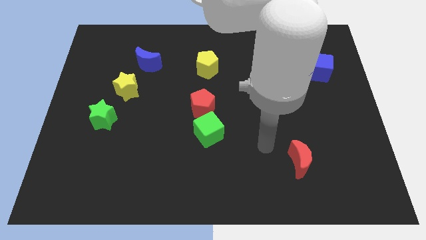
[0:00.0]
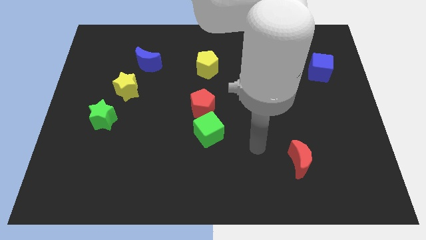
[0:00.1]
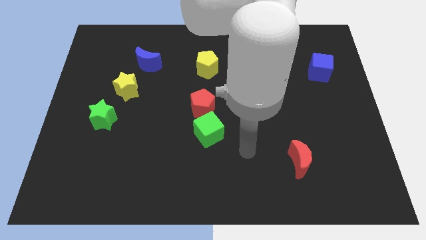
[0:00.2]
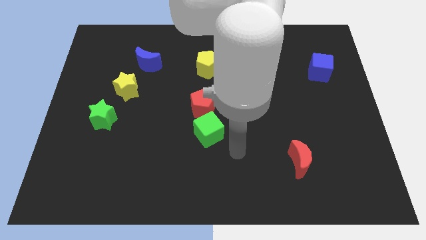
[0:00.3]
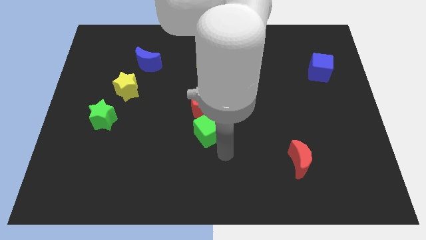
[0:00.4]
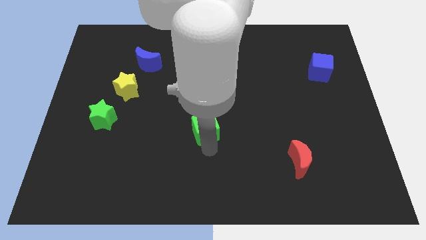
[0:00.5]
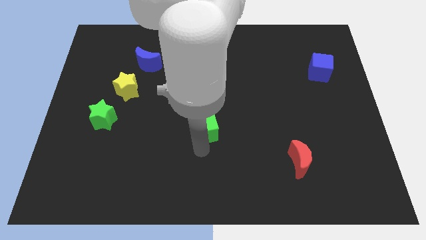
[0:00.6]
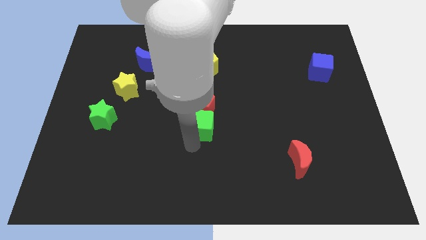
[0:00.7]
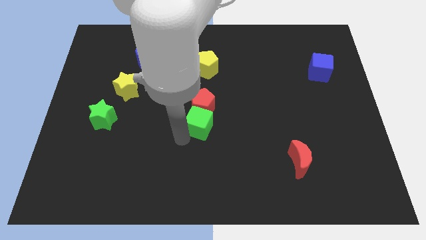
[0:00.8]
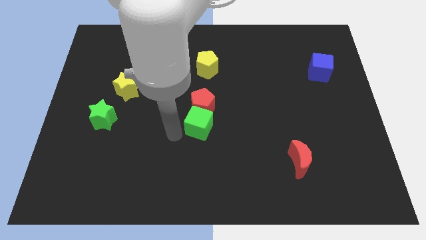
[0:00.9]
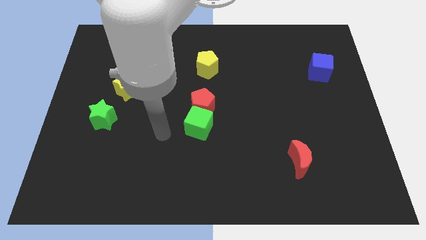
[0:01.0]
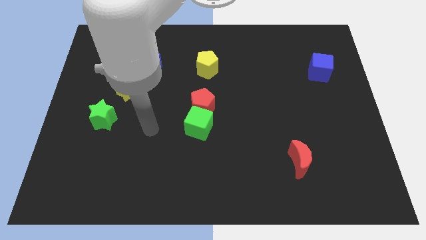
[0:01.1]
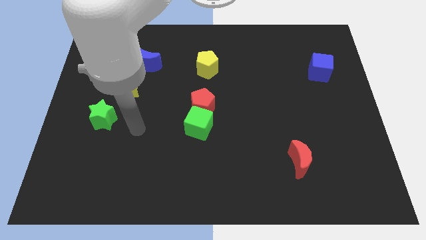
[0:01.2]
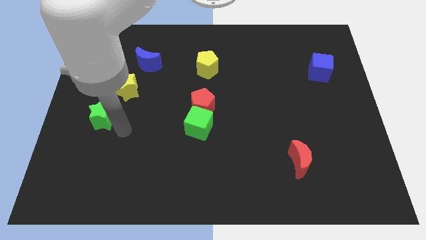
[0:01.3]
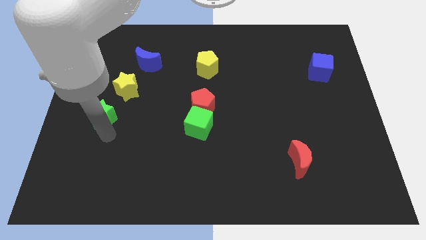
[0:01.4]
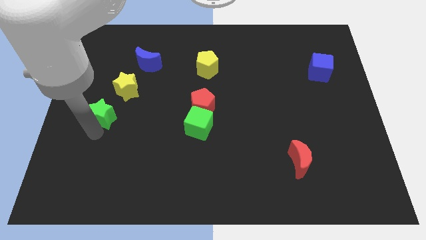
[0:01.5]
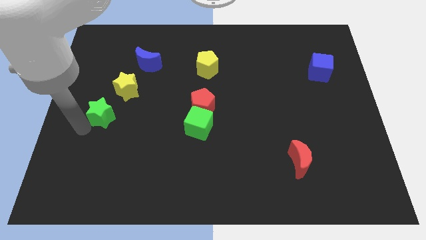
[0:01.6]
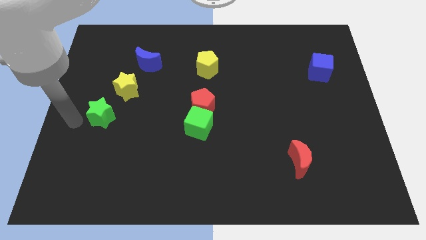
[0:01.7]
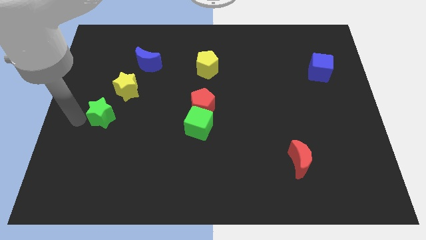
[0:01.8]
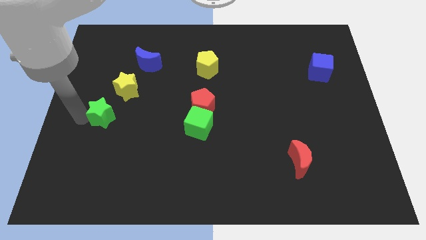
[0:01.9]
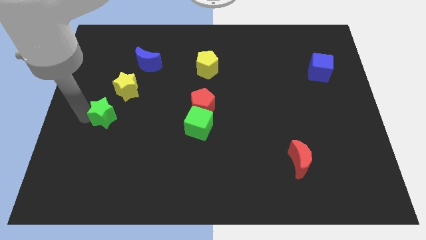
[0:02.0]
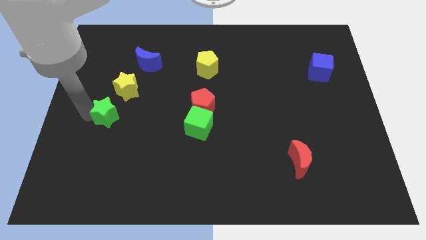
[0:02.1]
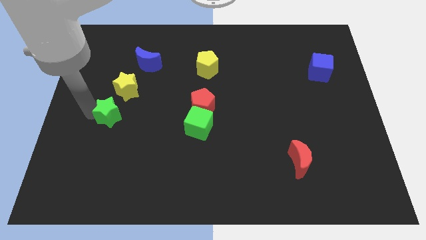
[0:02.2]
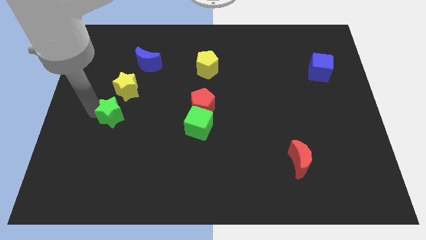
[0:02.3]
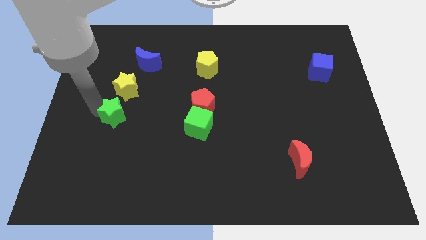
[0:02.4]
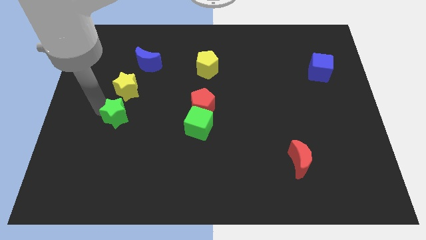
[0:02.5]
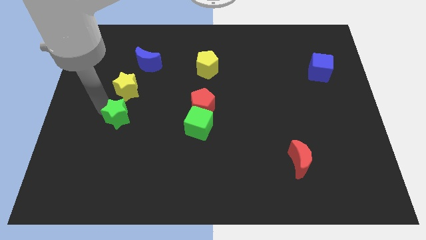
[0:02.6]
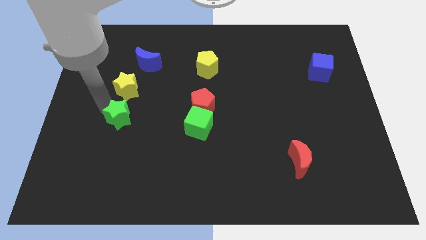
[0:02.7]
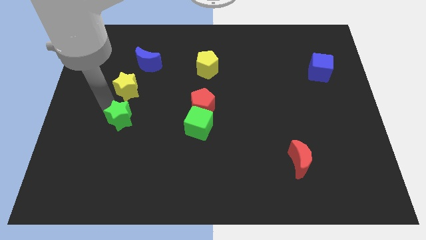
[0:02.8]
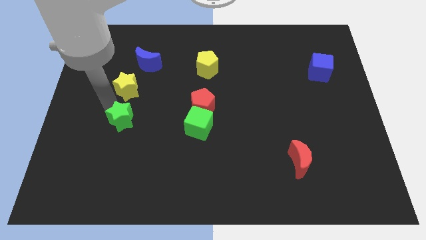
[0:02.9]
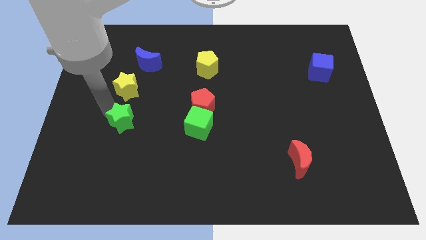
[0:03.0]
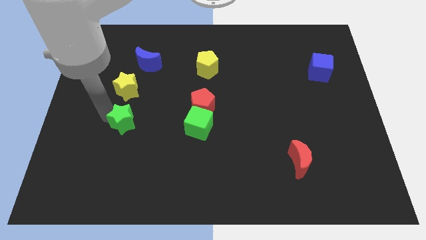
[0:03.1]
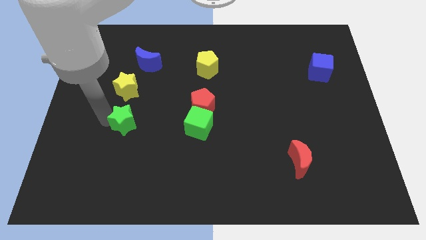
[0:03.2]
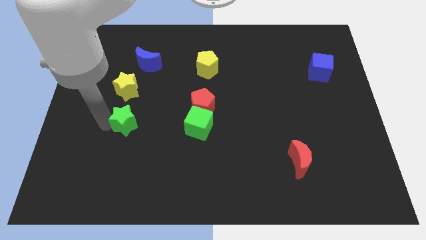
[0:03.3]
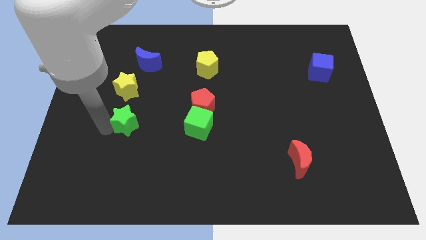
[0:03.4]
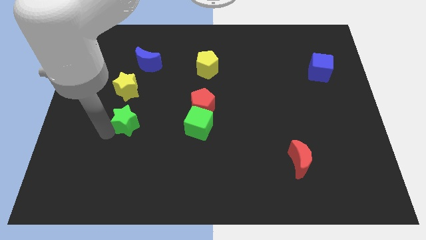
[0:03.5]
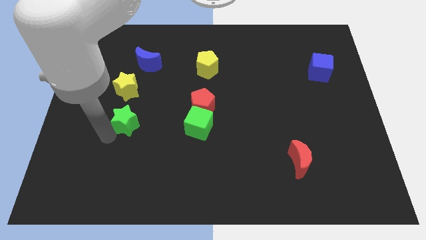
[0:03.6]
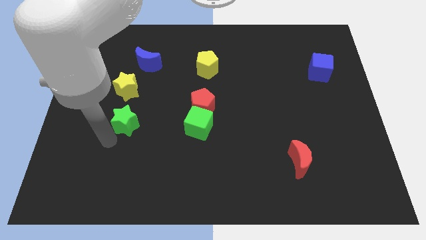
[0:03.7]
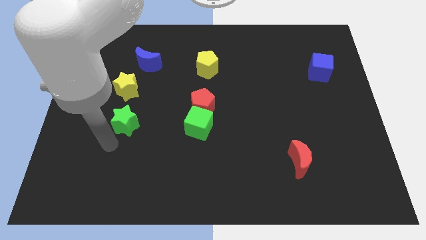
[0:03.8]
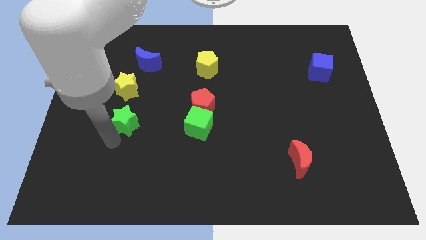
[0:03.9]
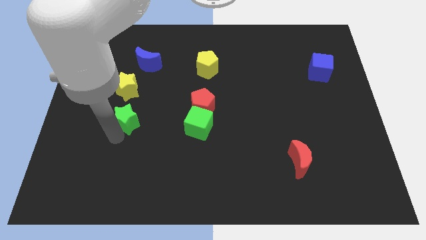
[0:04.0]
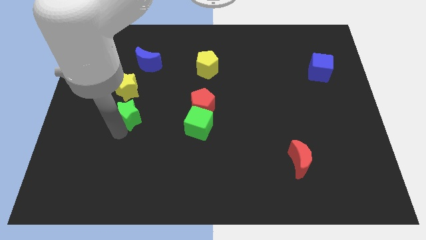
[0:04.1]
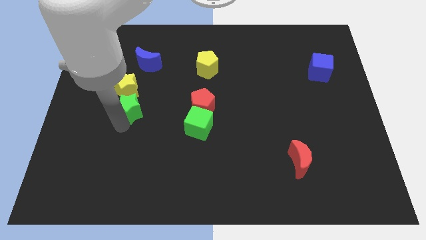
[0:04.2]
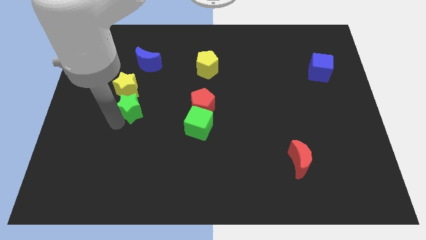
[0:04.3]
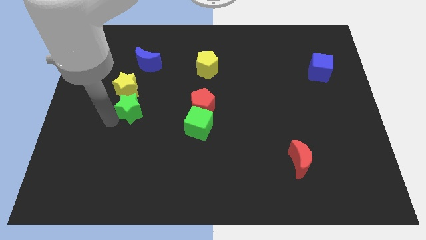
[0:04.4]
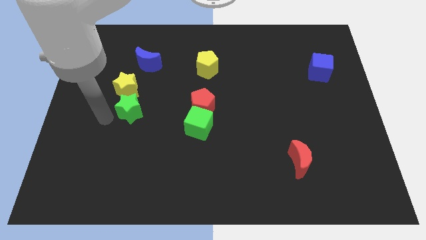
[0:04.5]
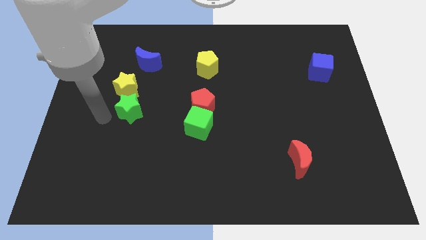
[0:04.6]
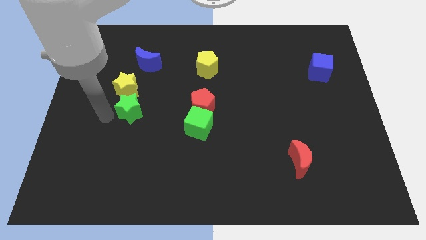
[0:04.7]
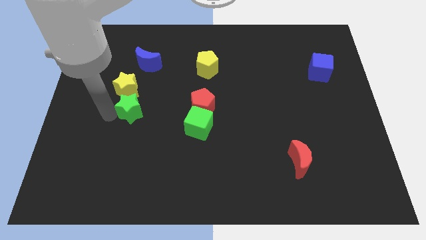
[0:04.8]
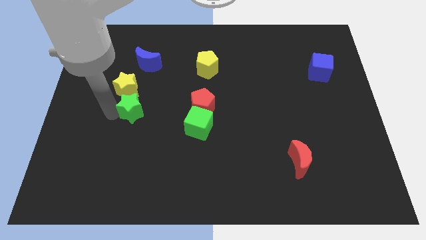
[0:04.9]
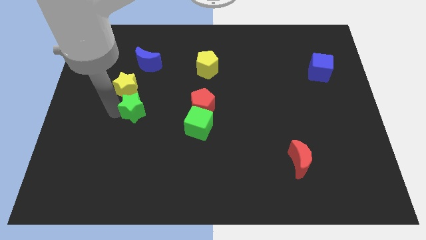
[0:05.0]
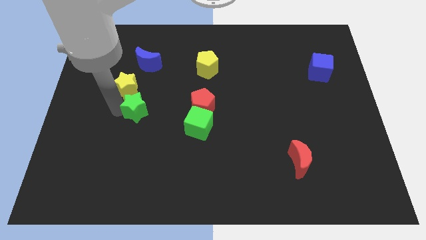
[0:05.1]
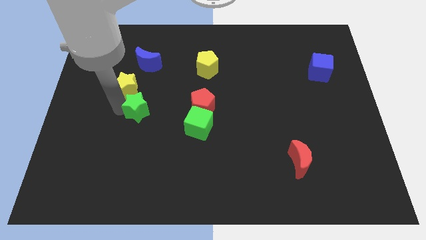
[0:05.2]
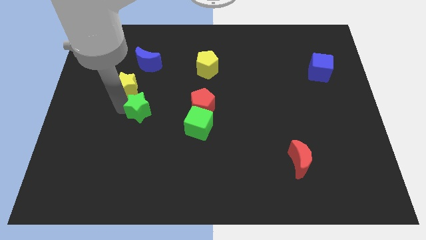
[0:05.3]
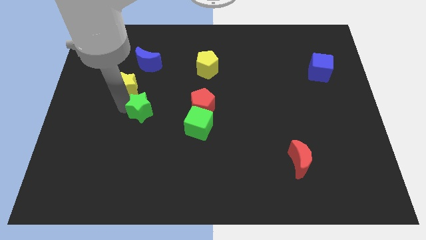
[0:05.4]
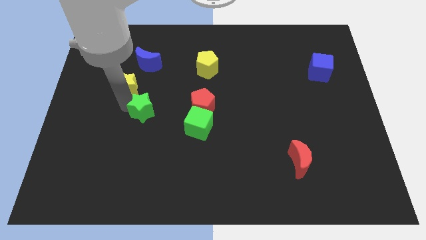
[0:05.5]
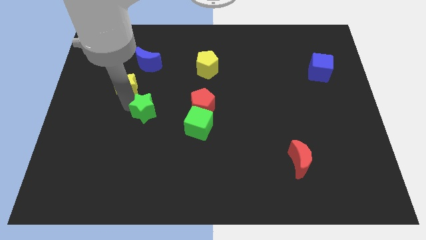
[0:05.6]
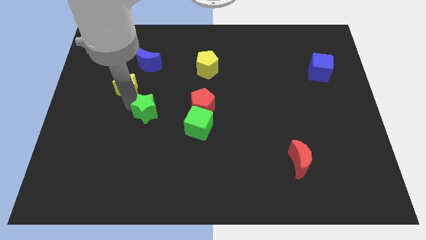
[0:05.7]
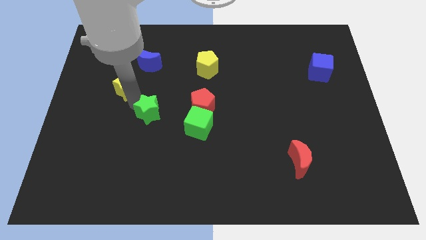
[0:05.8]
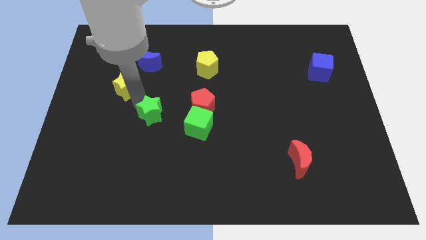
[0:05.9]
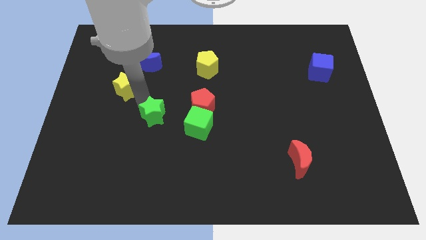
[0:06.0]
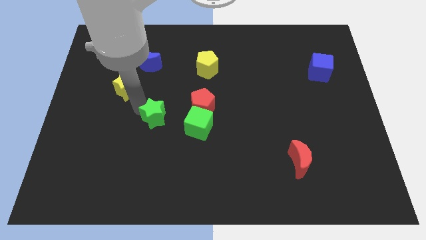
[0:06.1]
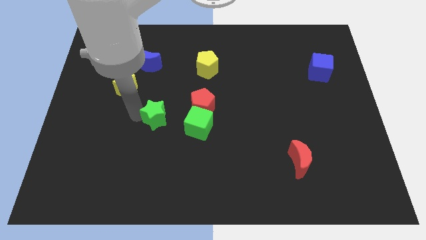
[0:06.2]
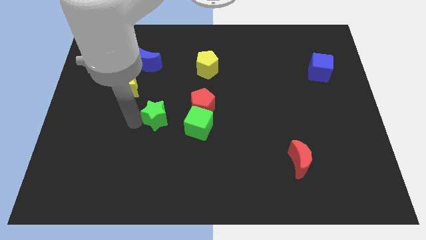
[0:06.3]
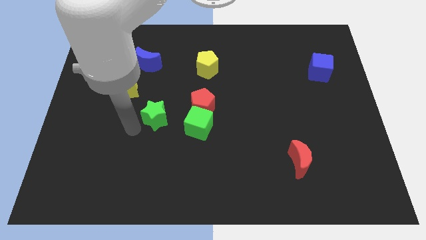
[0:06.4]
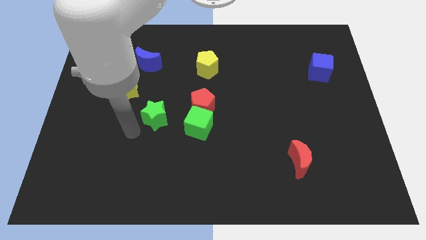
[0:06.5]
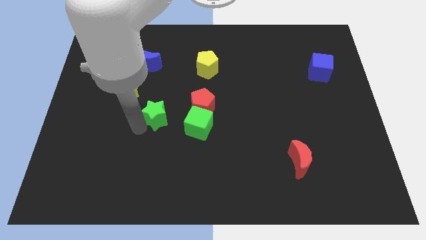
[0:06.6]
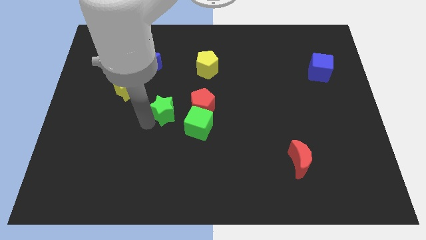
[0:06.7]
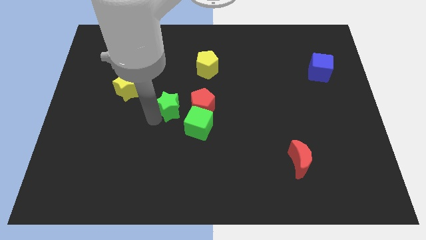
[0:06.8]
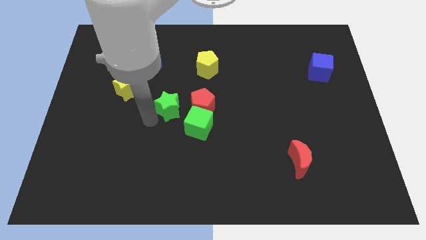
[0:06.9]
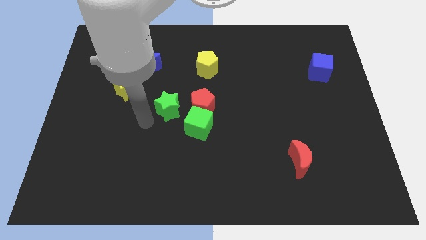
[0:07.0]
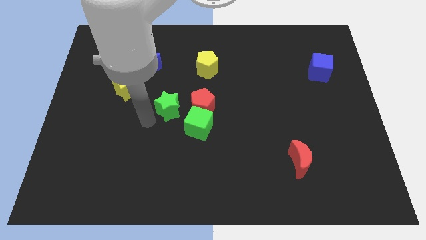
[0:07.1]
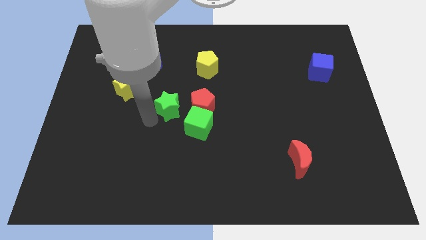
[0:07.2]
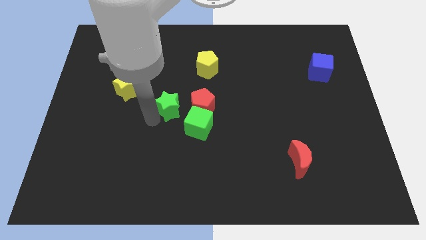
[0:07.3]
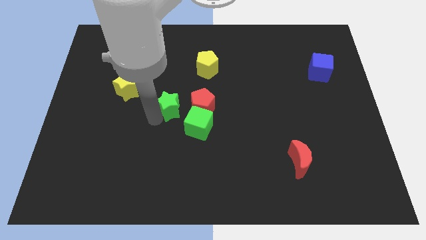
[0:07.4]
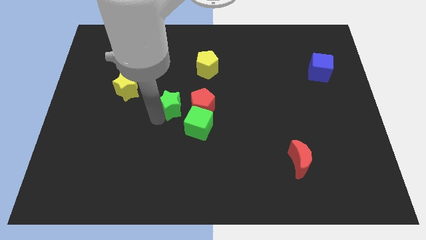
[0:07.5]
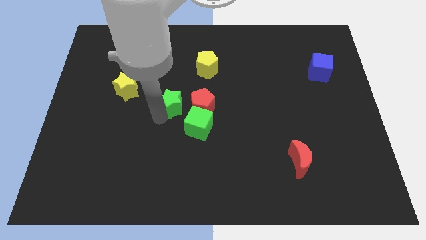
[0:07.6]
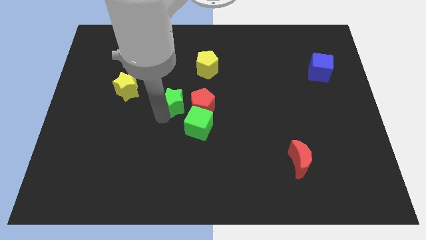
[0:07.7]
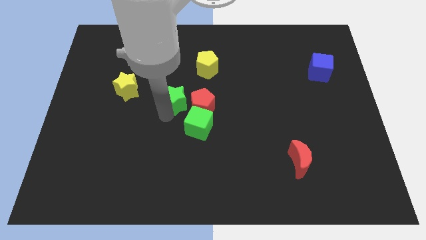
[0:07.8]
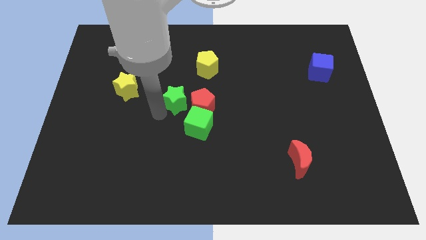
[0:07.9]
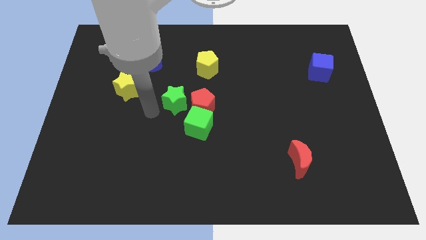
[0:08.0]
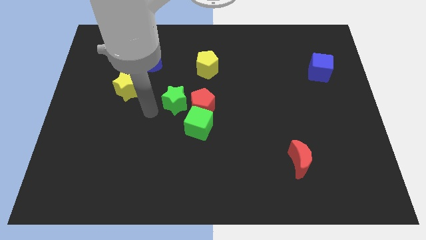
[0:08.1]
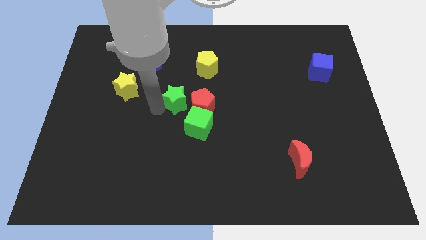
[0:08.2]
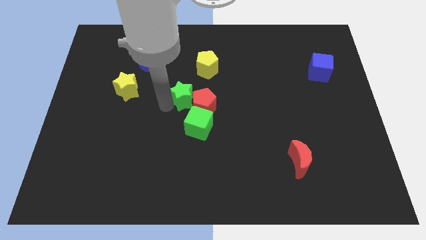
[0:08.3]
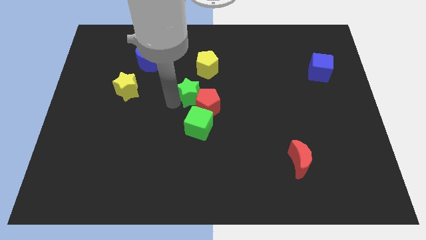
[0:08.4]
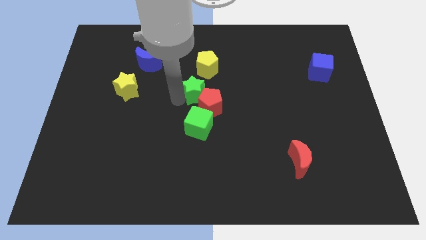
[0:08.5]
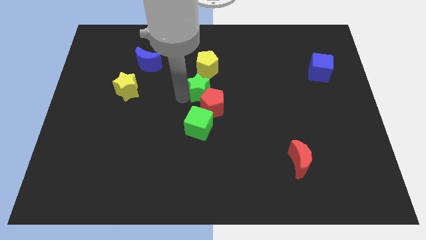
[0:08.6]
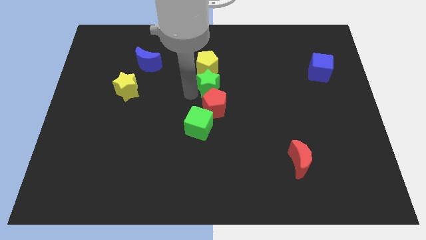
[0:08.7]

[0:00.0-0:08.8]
slide the green star to the bottom right of the yellow pentagon
